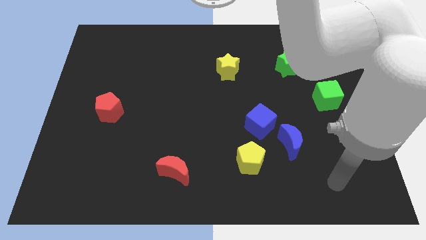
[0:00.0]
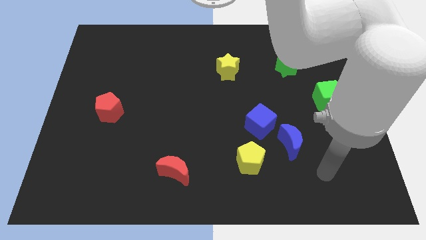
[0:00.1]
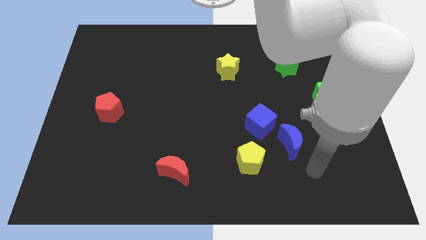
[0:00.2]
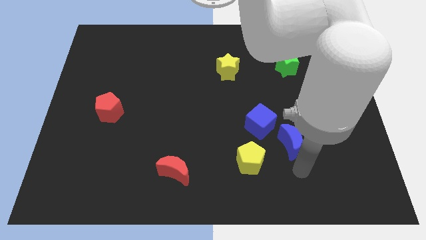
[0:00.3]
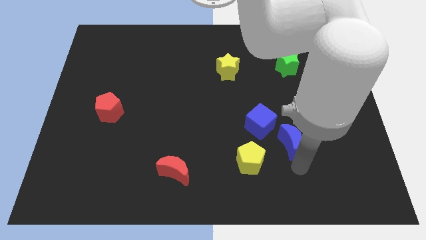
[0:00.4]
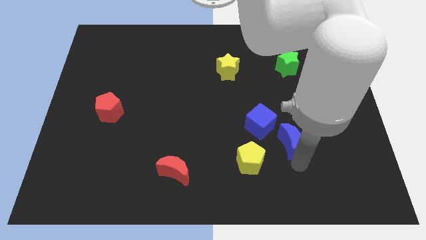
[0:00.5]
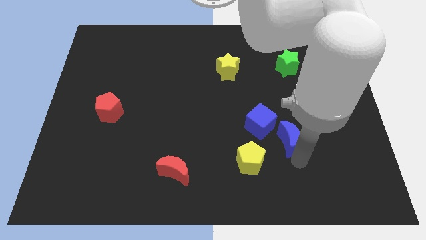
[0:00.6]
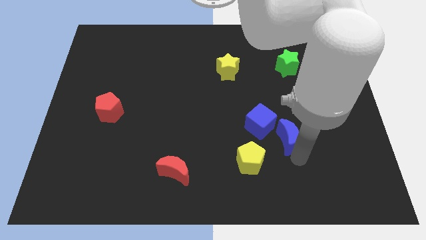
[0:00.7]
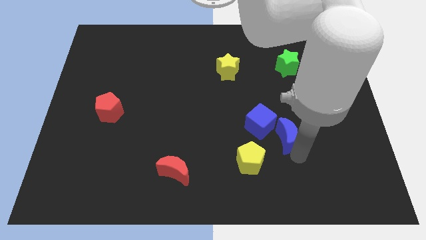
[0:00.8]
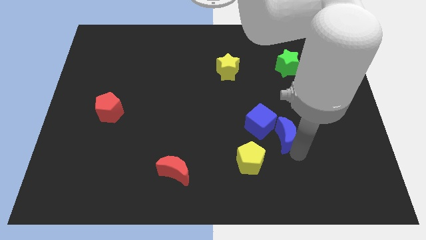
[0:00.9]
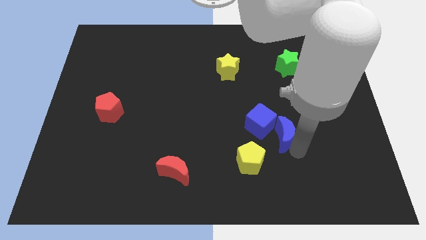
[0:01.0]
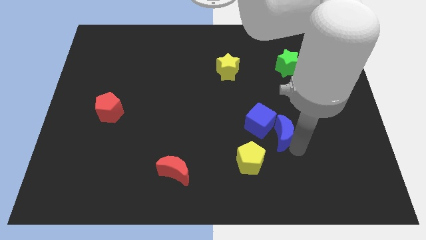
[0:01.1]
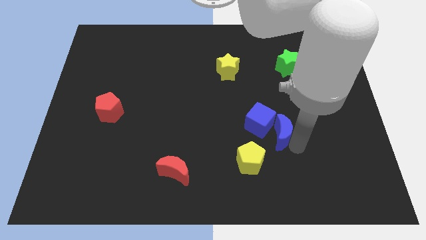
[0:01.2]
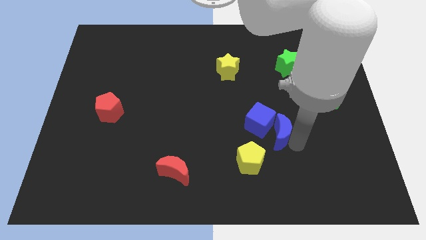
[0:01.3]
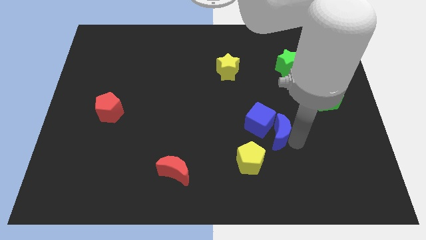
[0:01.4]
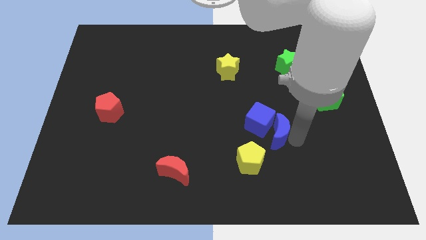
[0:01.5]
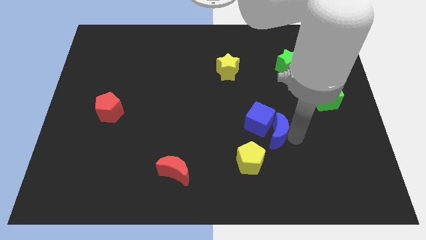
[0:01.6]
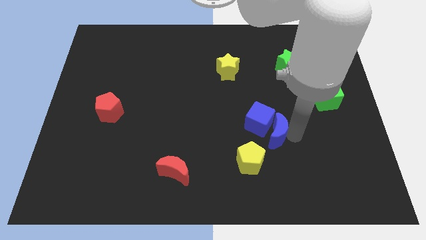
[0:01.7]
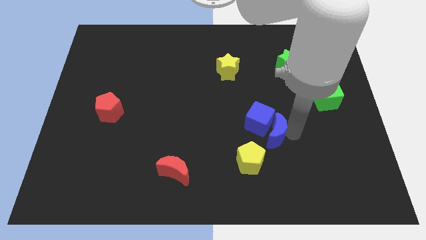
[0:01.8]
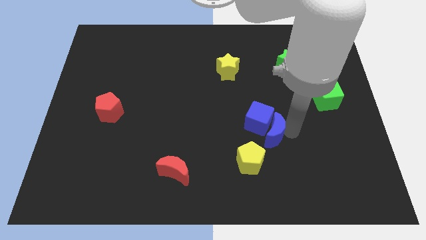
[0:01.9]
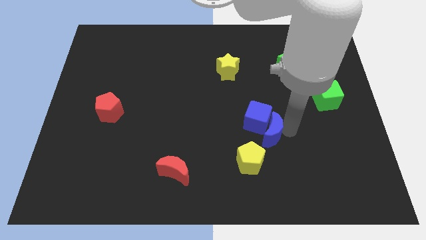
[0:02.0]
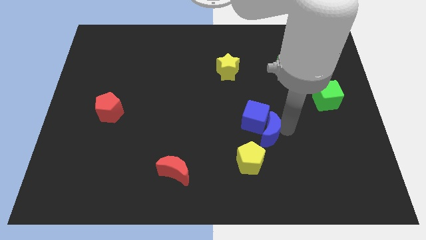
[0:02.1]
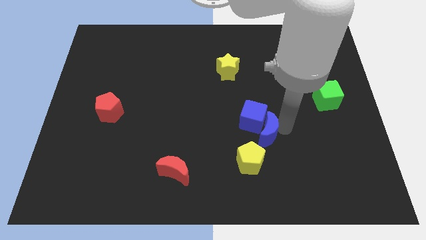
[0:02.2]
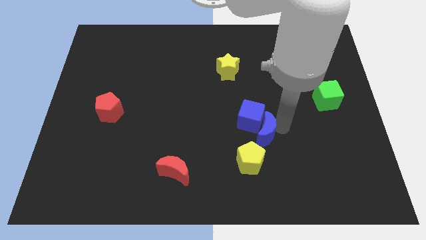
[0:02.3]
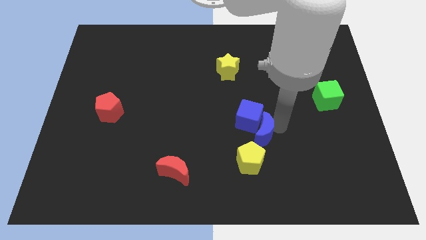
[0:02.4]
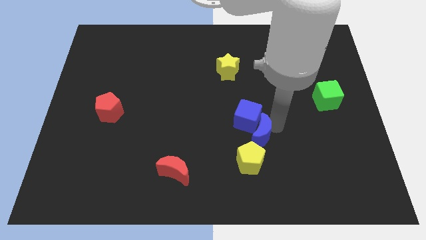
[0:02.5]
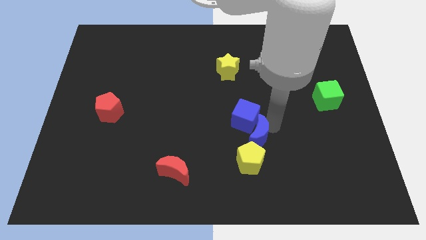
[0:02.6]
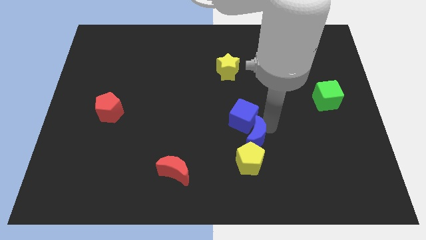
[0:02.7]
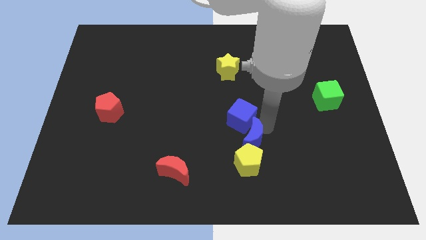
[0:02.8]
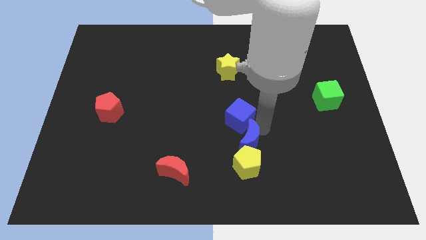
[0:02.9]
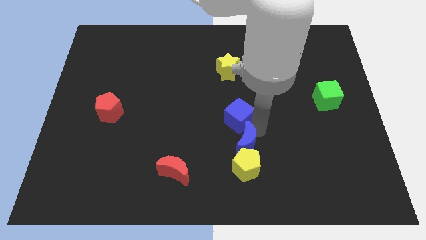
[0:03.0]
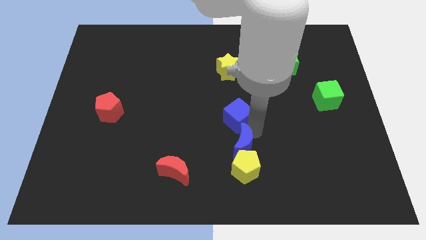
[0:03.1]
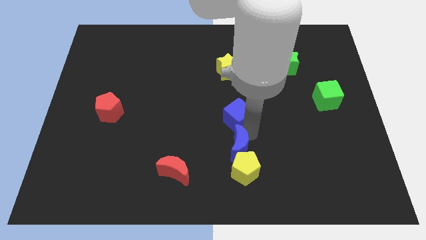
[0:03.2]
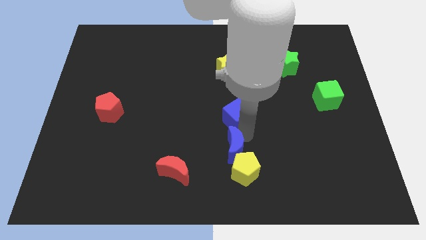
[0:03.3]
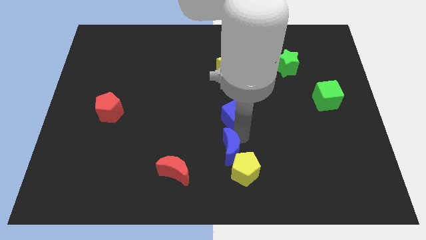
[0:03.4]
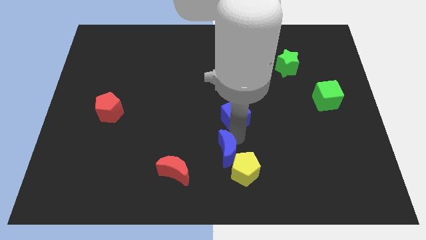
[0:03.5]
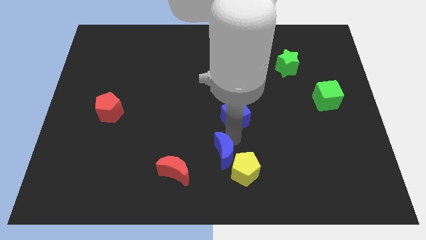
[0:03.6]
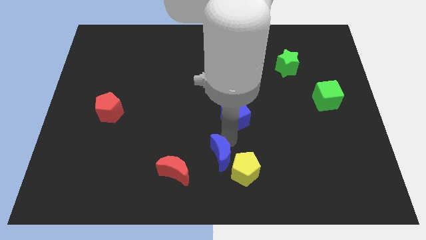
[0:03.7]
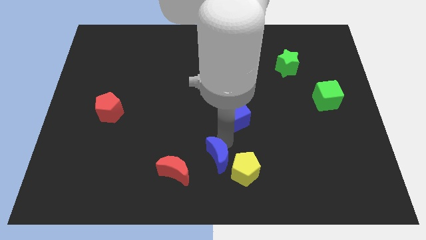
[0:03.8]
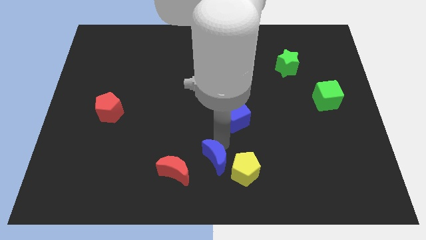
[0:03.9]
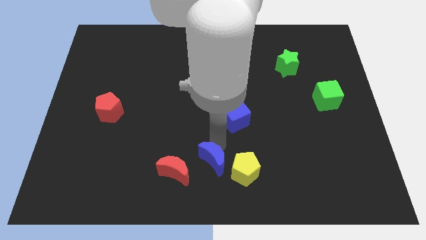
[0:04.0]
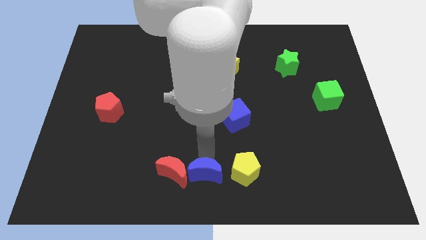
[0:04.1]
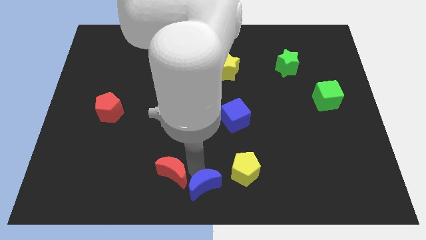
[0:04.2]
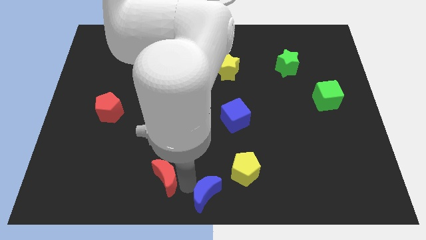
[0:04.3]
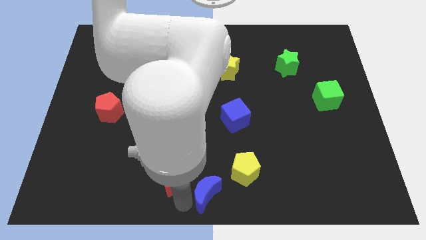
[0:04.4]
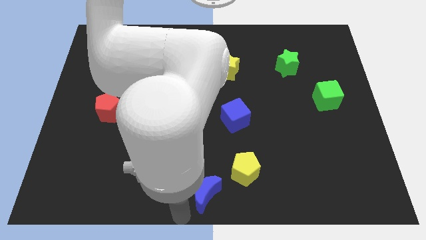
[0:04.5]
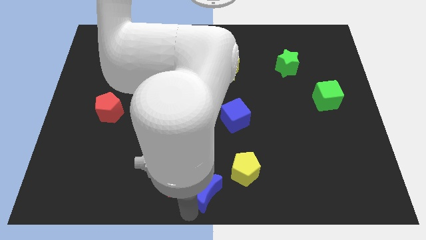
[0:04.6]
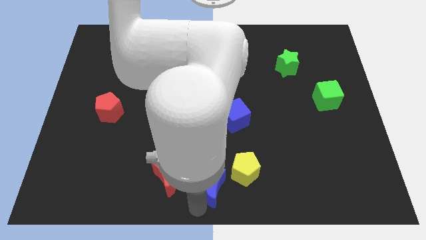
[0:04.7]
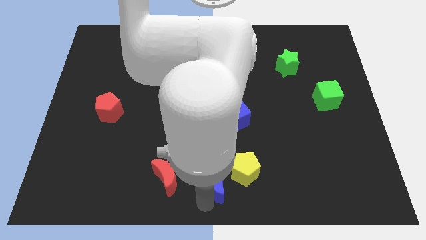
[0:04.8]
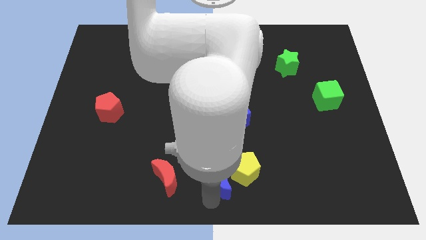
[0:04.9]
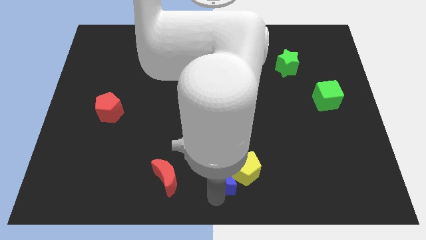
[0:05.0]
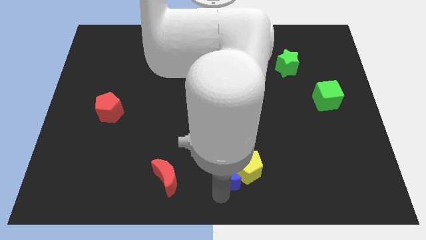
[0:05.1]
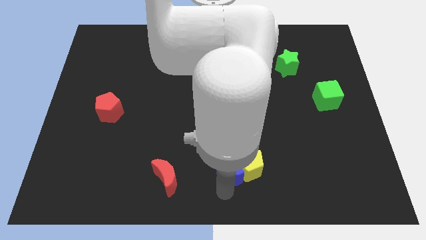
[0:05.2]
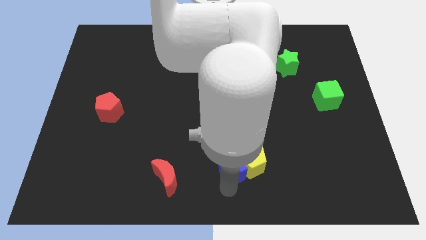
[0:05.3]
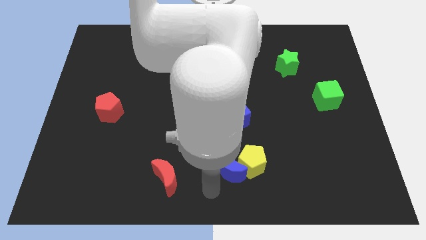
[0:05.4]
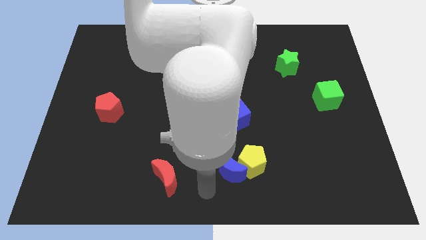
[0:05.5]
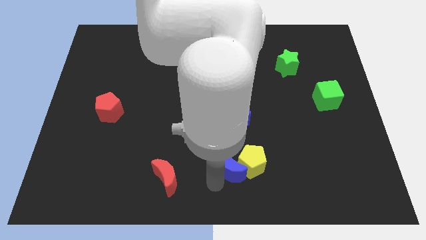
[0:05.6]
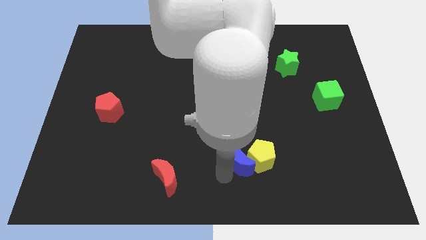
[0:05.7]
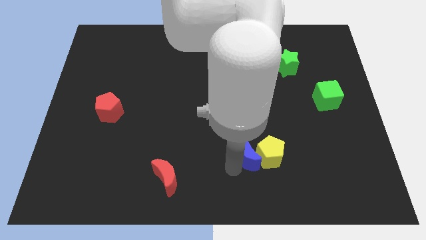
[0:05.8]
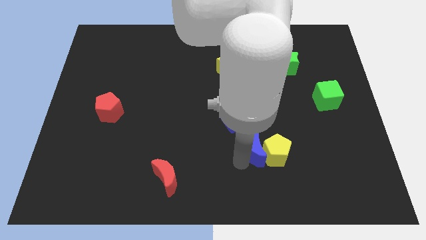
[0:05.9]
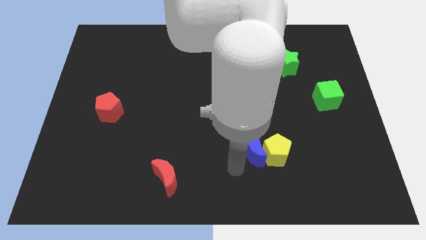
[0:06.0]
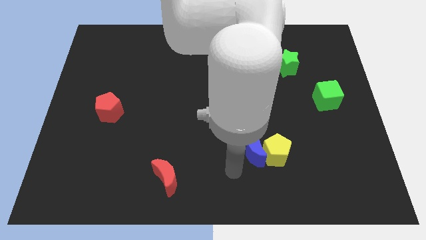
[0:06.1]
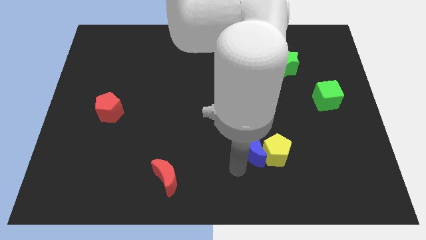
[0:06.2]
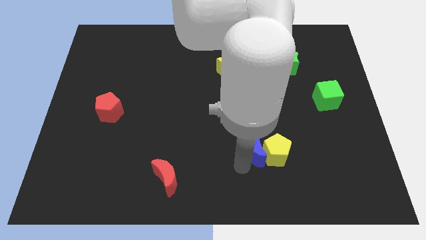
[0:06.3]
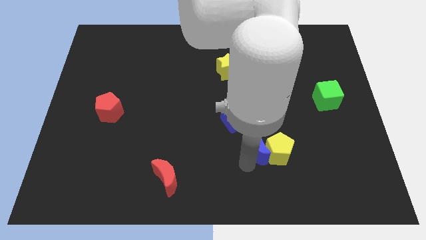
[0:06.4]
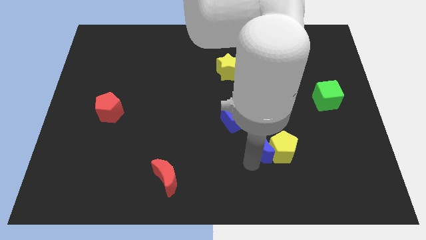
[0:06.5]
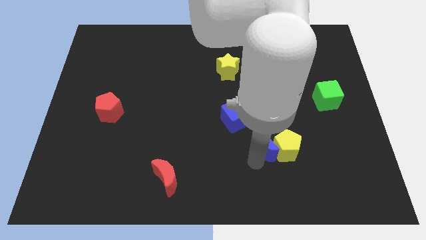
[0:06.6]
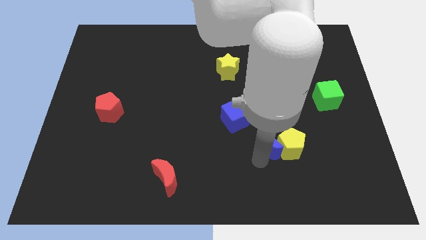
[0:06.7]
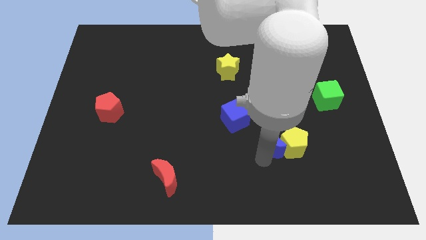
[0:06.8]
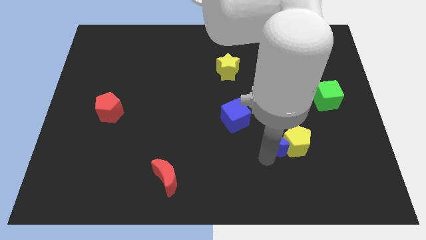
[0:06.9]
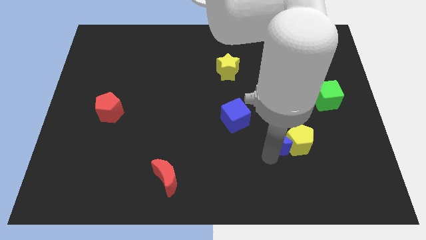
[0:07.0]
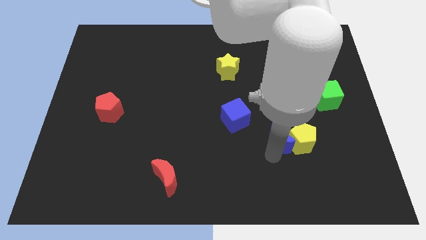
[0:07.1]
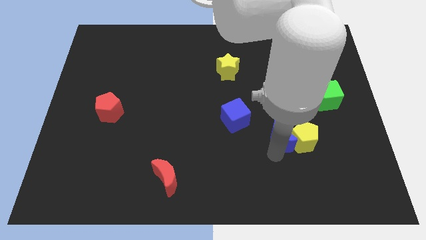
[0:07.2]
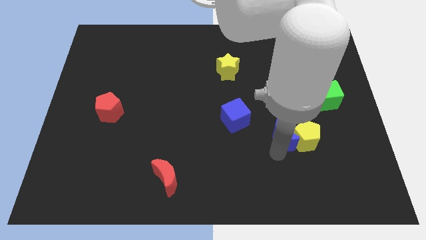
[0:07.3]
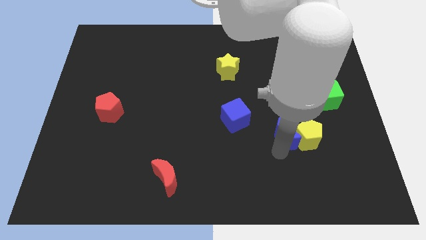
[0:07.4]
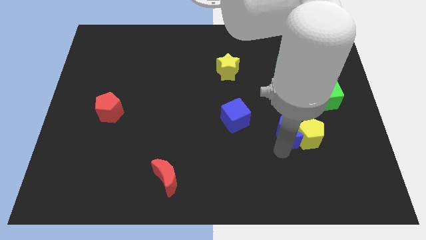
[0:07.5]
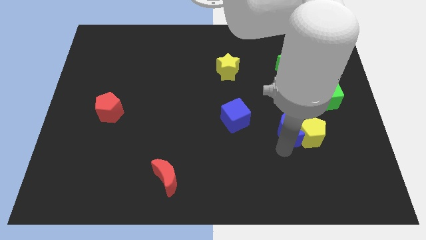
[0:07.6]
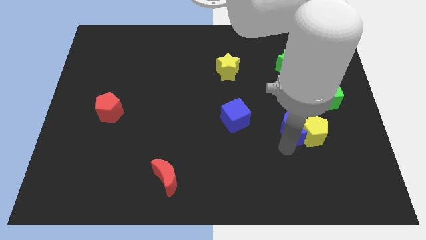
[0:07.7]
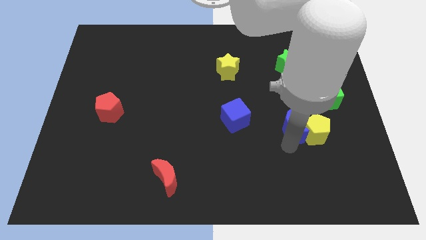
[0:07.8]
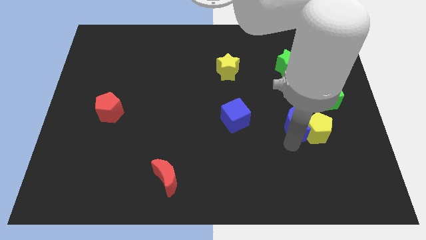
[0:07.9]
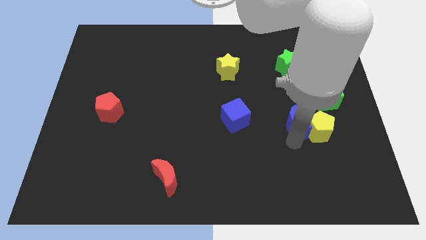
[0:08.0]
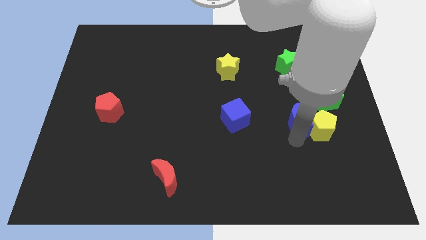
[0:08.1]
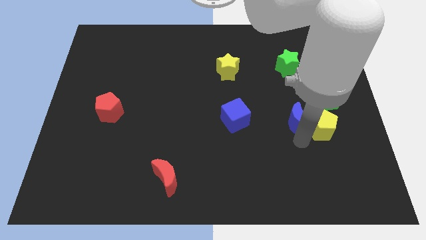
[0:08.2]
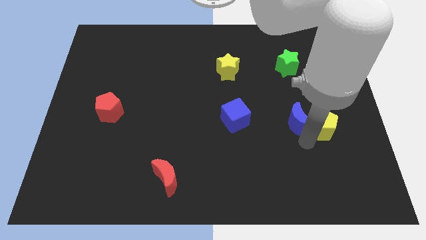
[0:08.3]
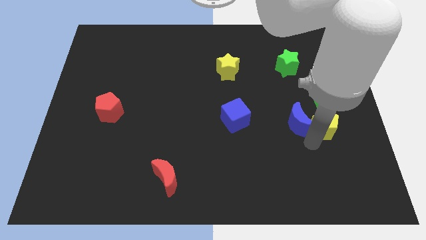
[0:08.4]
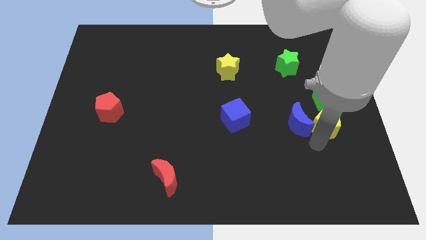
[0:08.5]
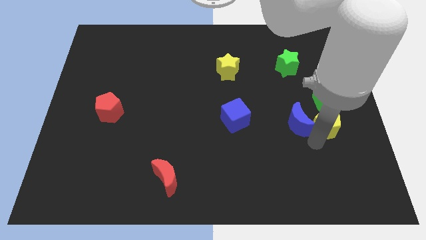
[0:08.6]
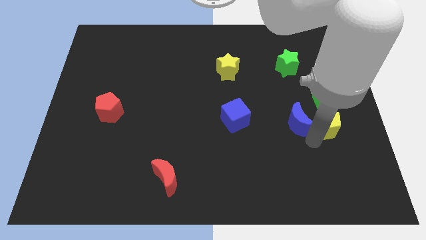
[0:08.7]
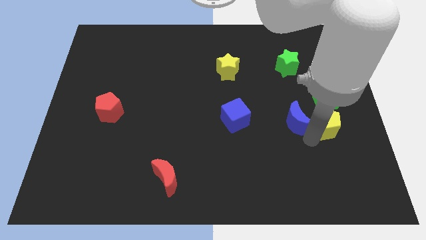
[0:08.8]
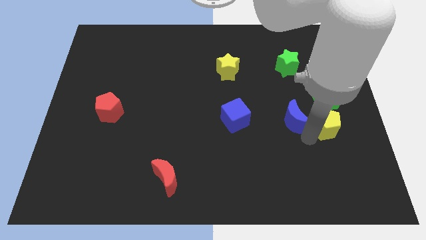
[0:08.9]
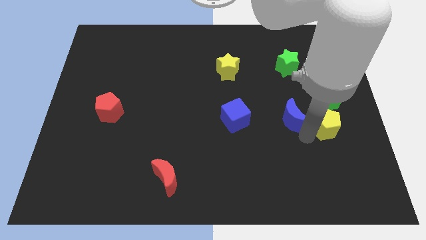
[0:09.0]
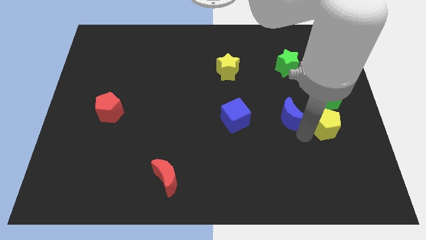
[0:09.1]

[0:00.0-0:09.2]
slightly push the blue moon upwards
